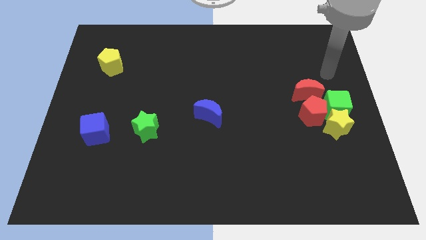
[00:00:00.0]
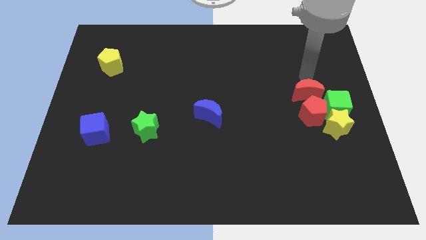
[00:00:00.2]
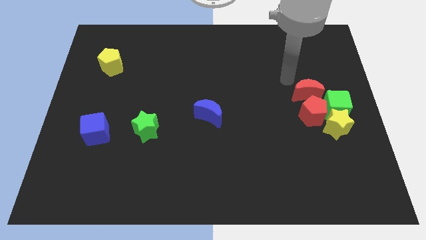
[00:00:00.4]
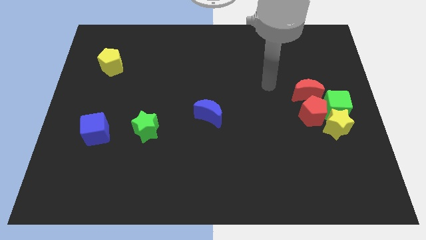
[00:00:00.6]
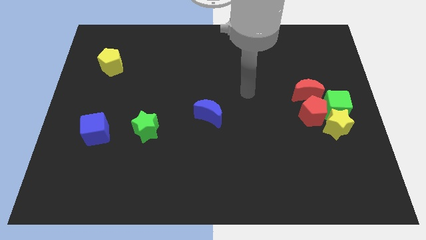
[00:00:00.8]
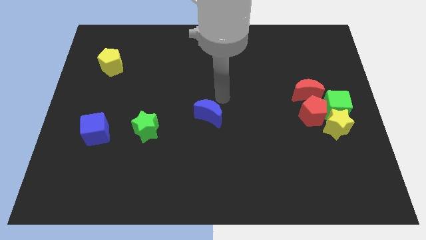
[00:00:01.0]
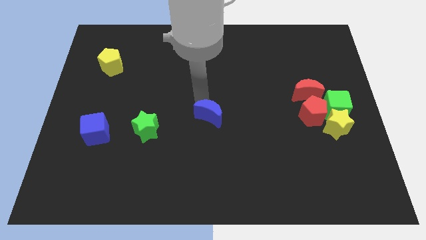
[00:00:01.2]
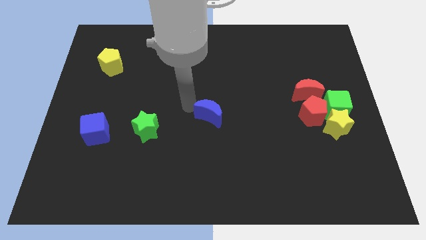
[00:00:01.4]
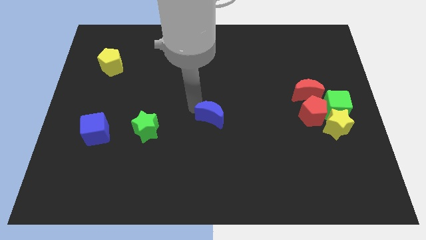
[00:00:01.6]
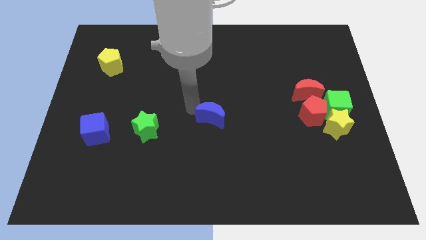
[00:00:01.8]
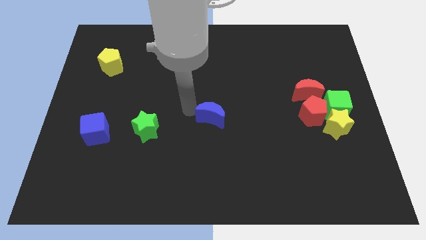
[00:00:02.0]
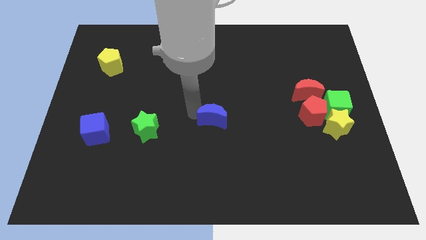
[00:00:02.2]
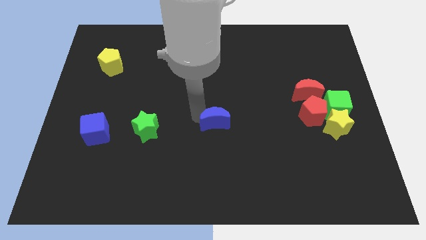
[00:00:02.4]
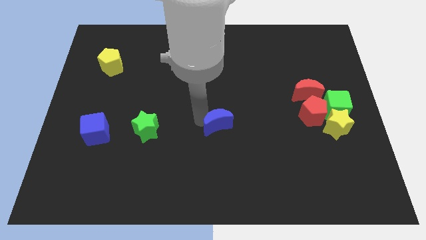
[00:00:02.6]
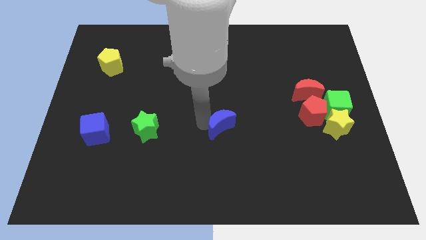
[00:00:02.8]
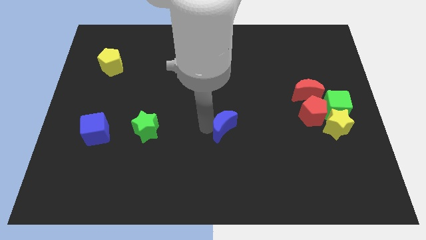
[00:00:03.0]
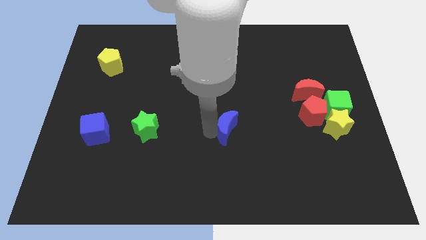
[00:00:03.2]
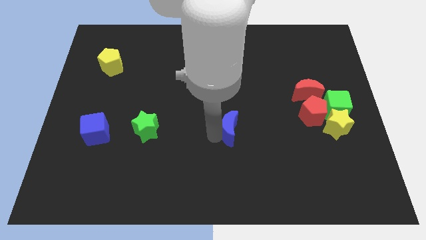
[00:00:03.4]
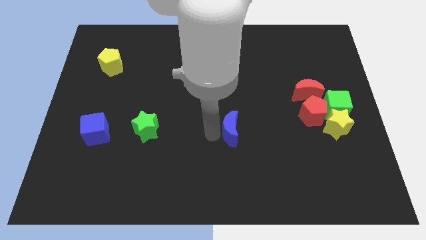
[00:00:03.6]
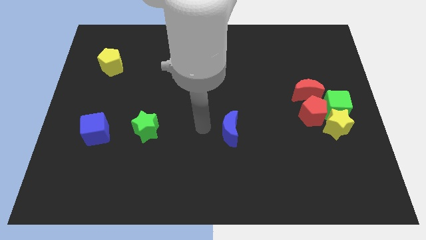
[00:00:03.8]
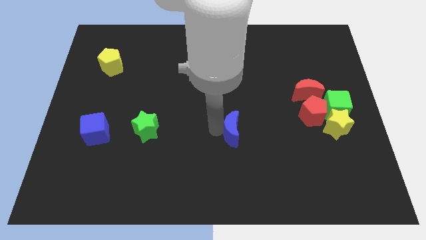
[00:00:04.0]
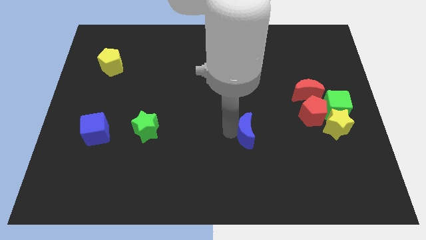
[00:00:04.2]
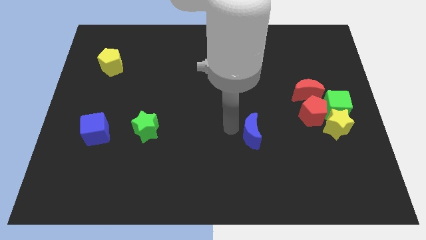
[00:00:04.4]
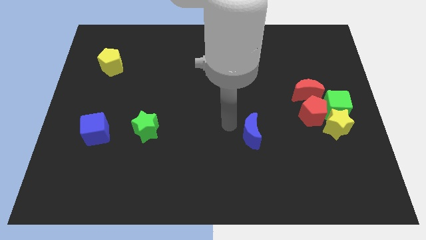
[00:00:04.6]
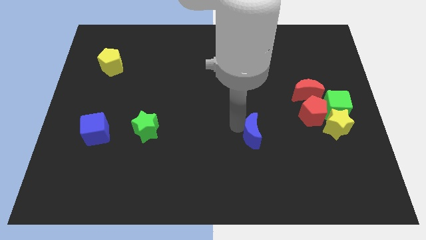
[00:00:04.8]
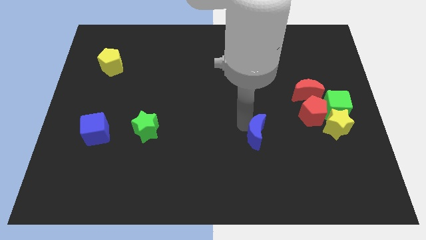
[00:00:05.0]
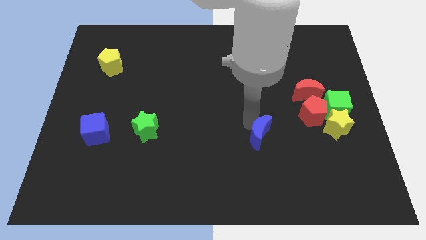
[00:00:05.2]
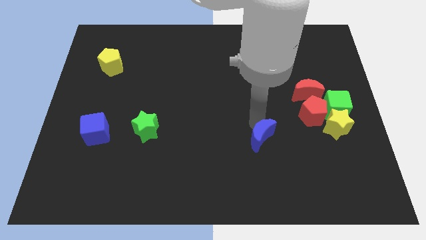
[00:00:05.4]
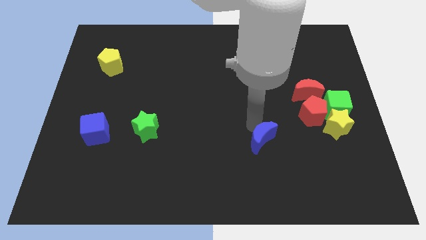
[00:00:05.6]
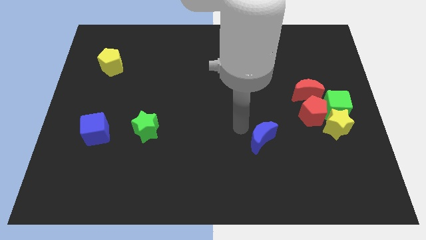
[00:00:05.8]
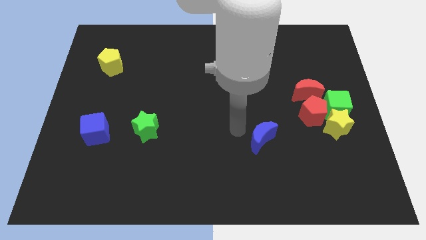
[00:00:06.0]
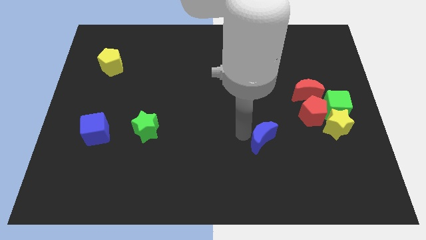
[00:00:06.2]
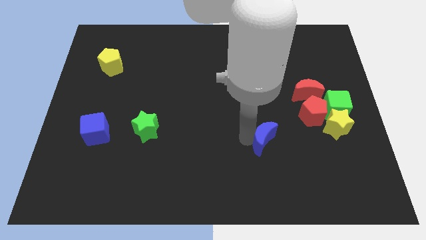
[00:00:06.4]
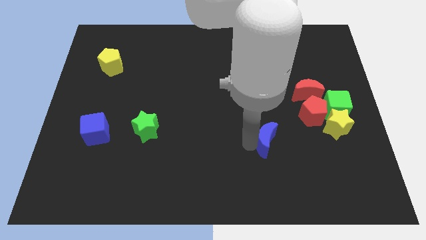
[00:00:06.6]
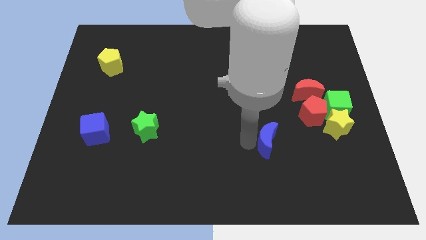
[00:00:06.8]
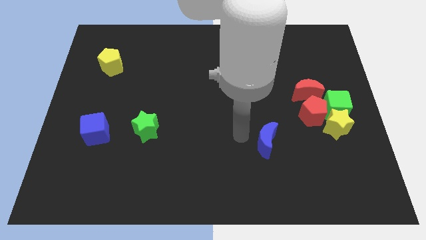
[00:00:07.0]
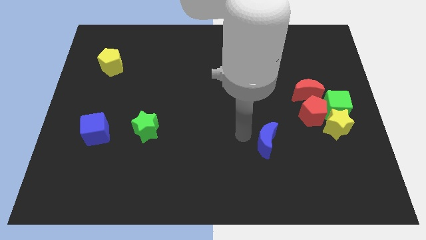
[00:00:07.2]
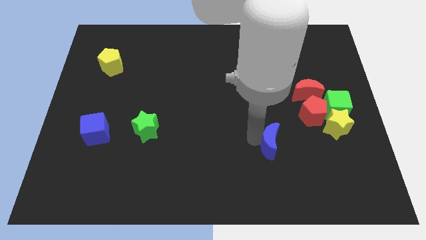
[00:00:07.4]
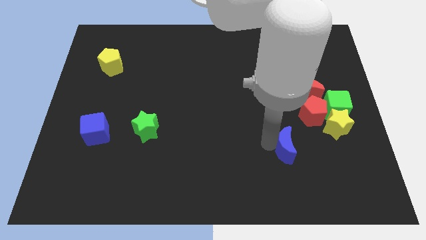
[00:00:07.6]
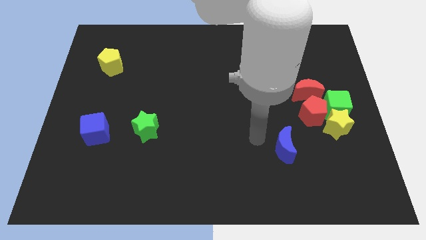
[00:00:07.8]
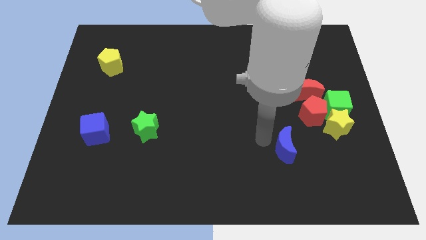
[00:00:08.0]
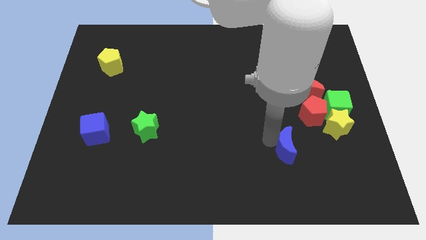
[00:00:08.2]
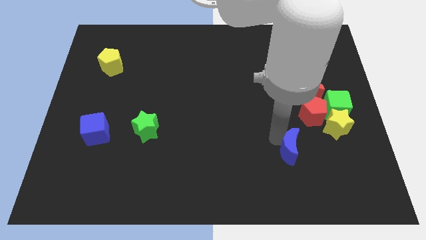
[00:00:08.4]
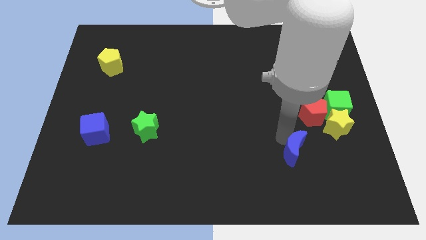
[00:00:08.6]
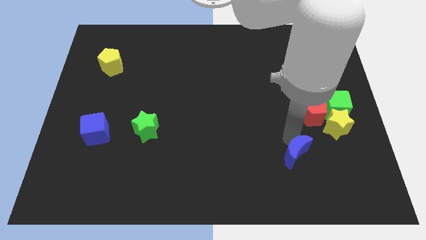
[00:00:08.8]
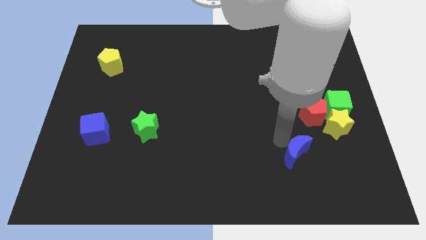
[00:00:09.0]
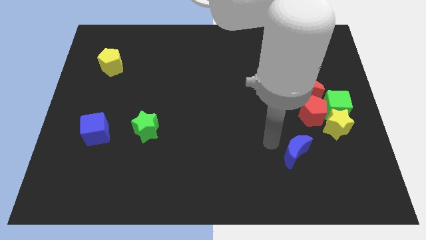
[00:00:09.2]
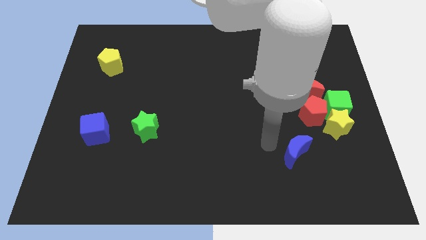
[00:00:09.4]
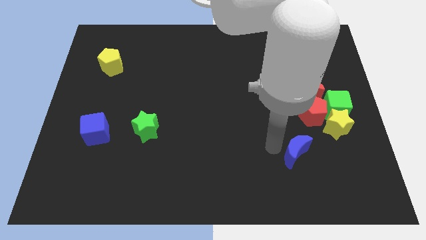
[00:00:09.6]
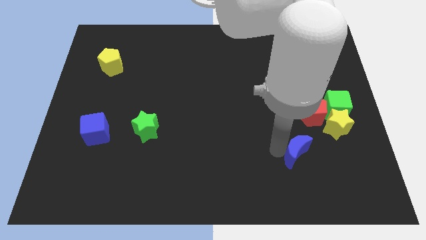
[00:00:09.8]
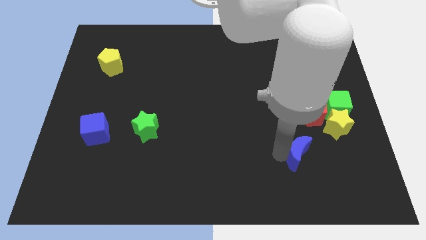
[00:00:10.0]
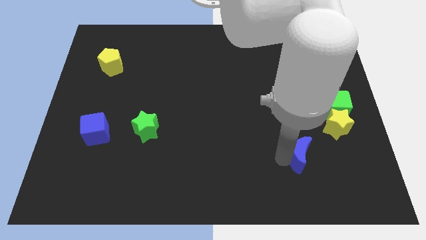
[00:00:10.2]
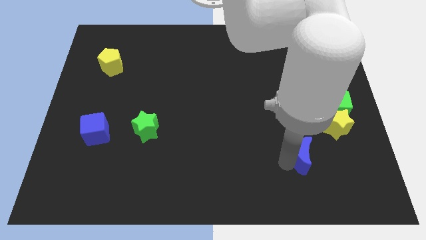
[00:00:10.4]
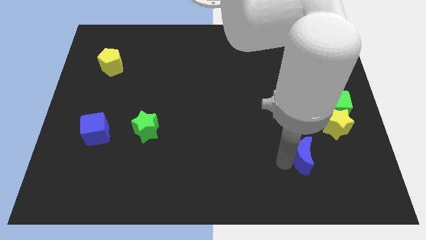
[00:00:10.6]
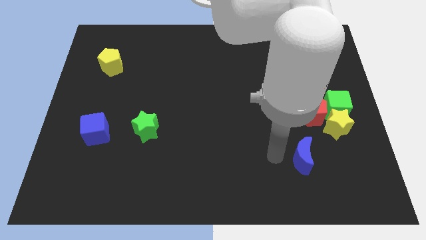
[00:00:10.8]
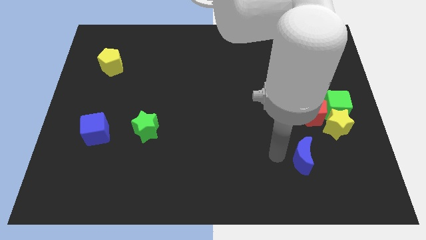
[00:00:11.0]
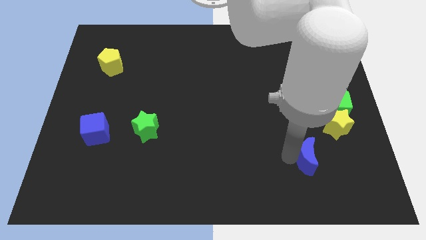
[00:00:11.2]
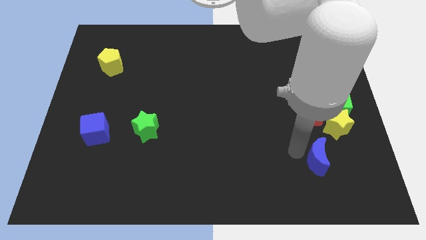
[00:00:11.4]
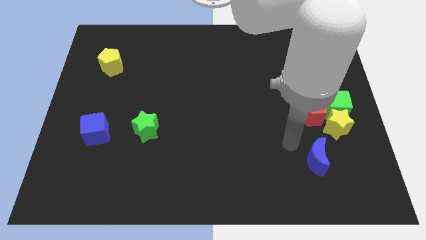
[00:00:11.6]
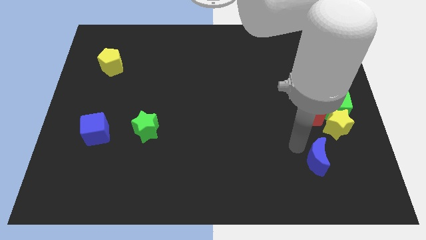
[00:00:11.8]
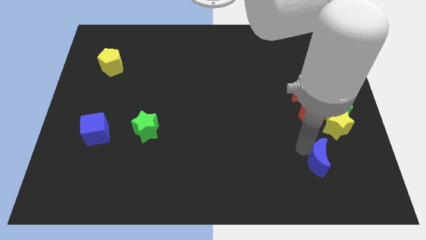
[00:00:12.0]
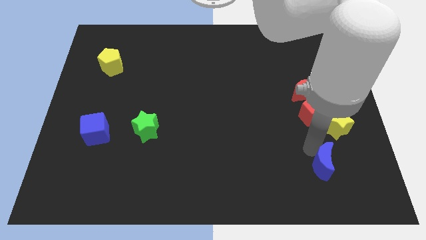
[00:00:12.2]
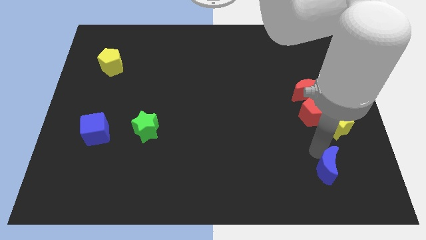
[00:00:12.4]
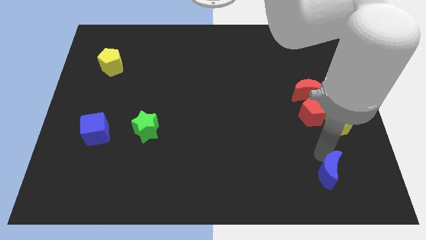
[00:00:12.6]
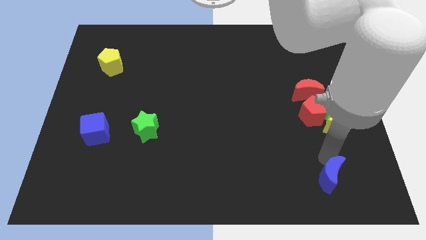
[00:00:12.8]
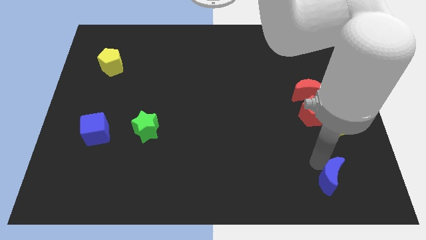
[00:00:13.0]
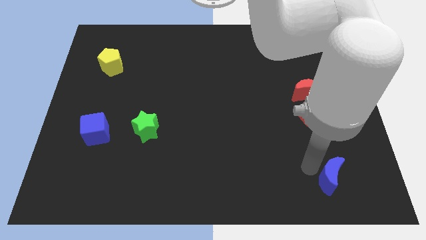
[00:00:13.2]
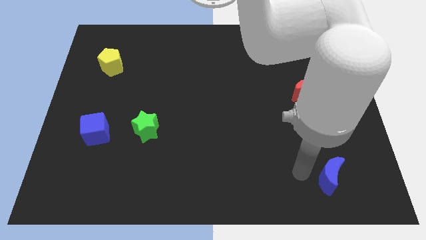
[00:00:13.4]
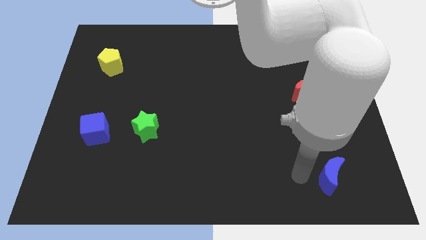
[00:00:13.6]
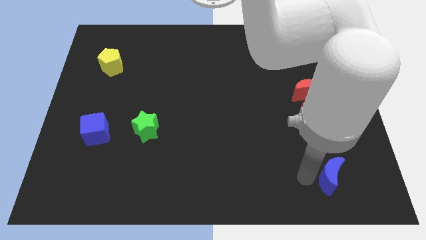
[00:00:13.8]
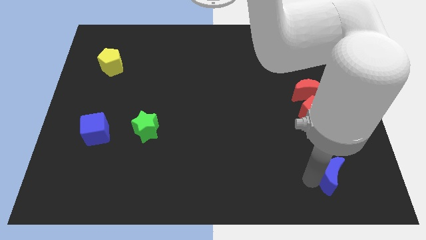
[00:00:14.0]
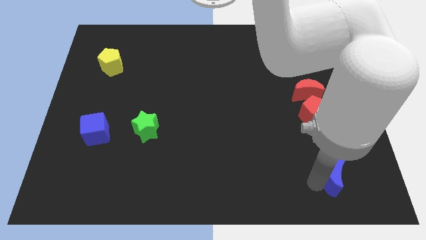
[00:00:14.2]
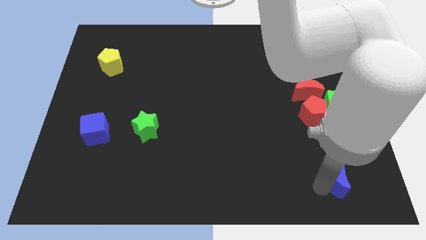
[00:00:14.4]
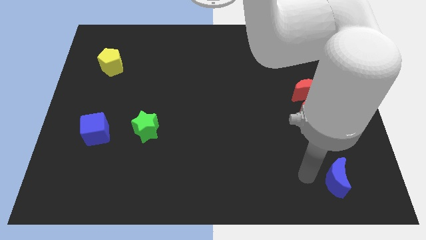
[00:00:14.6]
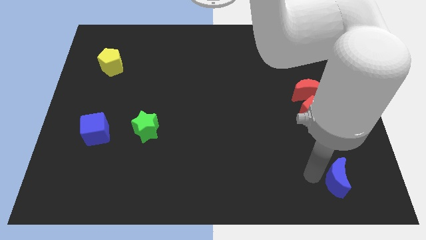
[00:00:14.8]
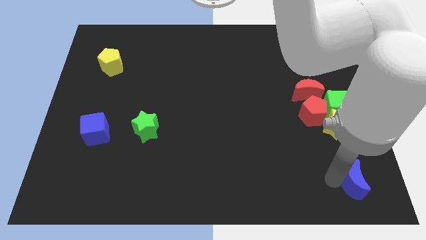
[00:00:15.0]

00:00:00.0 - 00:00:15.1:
put the blue moon to the bottom right corner
